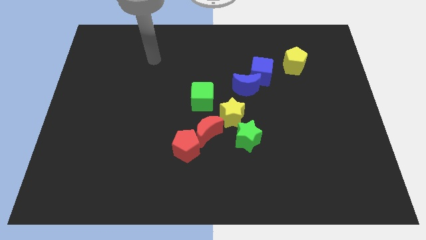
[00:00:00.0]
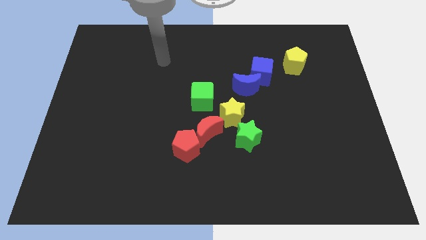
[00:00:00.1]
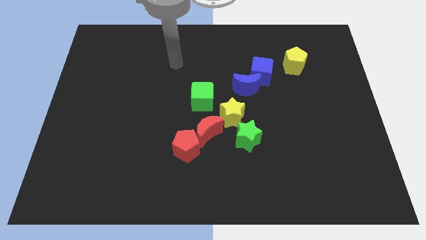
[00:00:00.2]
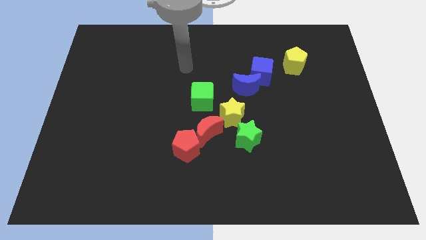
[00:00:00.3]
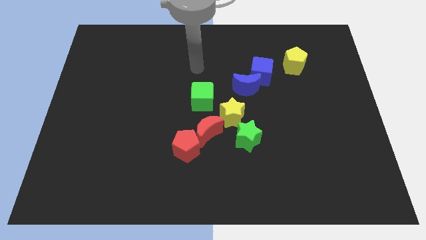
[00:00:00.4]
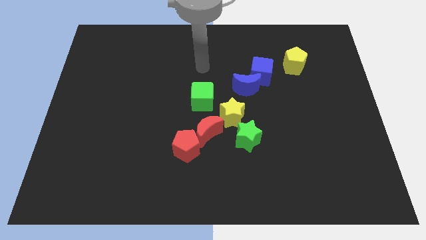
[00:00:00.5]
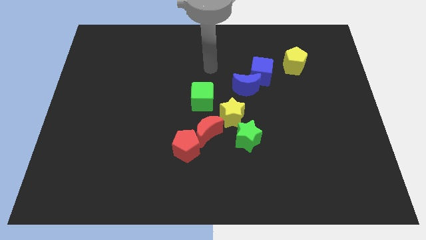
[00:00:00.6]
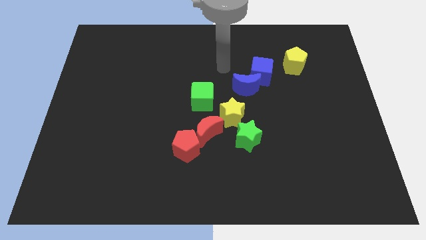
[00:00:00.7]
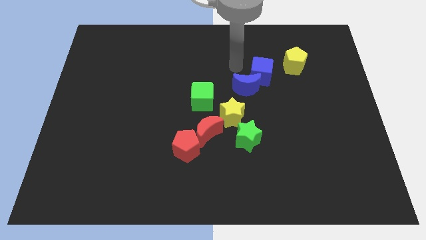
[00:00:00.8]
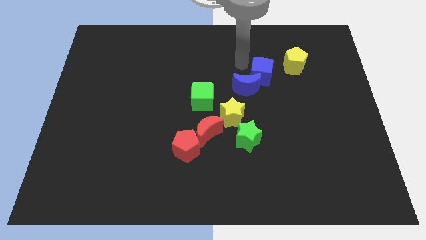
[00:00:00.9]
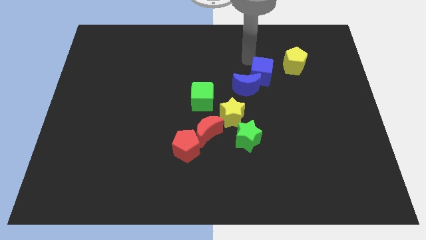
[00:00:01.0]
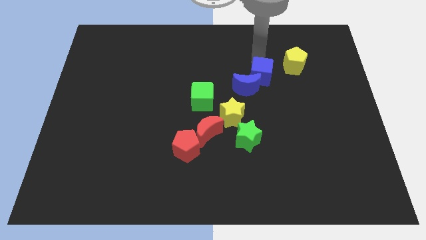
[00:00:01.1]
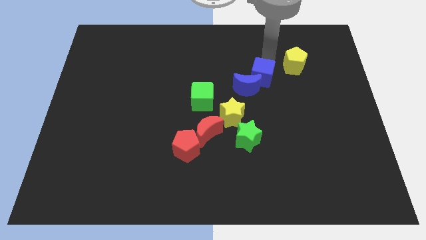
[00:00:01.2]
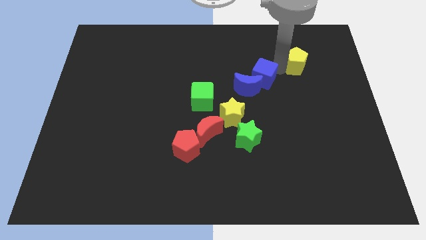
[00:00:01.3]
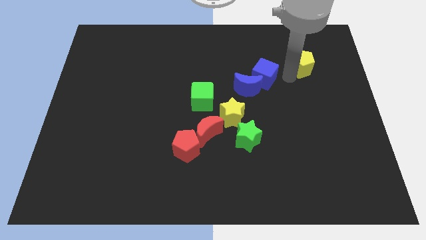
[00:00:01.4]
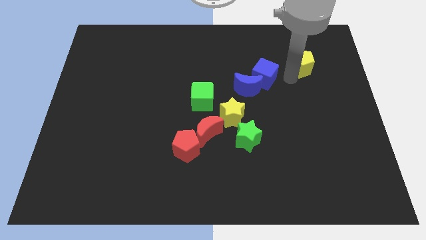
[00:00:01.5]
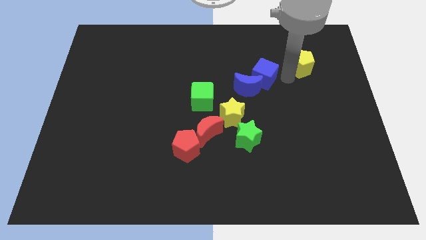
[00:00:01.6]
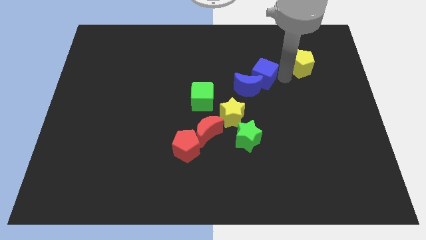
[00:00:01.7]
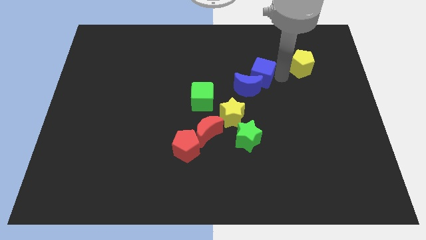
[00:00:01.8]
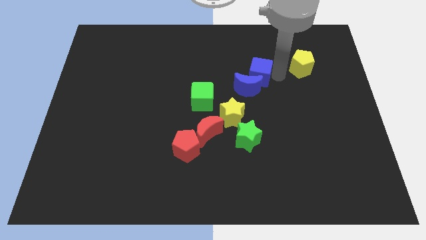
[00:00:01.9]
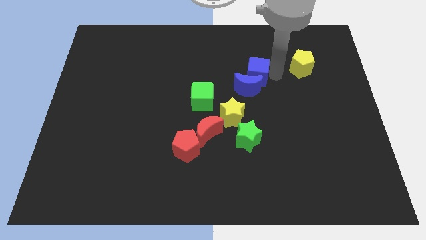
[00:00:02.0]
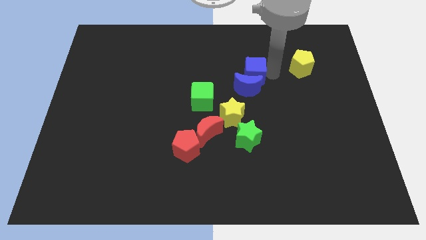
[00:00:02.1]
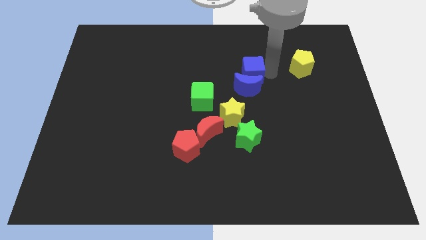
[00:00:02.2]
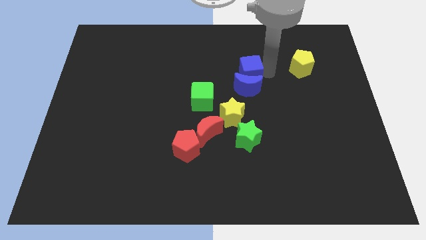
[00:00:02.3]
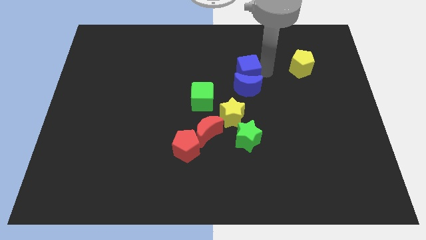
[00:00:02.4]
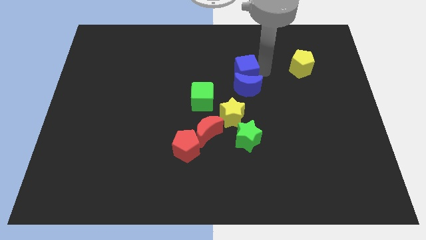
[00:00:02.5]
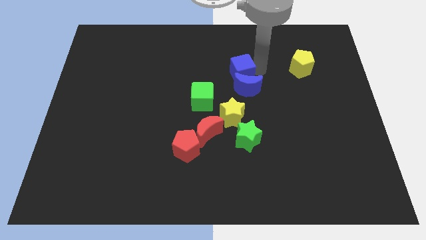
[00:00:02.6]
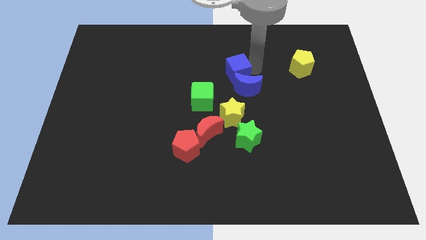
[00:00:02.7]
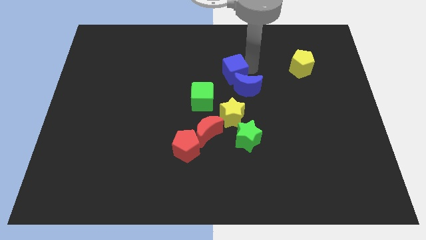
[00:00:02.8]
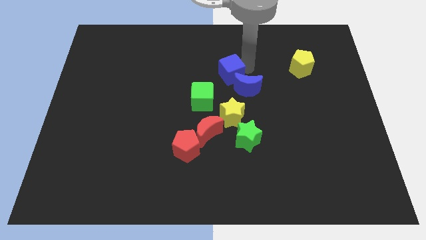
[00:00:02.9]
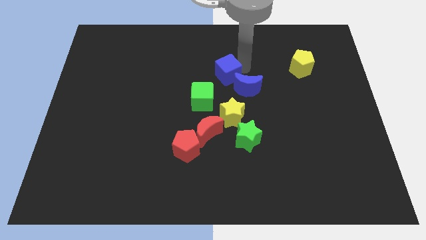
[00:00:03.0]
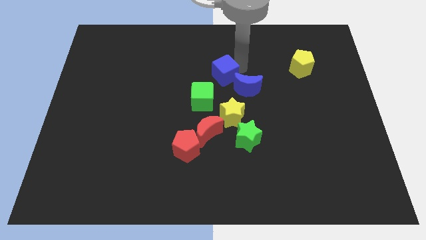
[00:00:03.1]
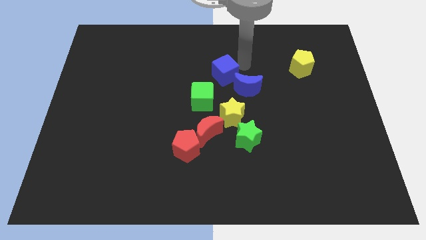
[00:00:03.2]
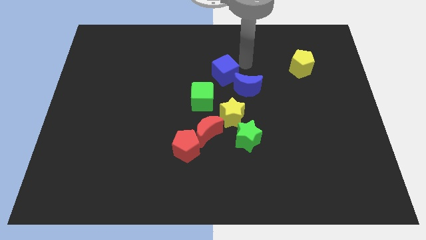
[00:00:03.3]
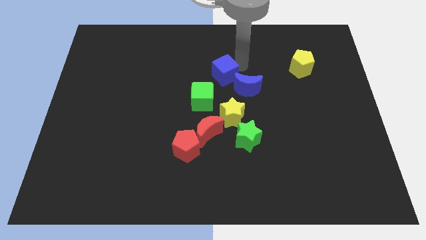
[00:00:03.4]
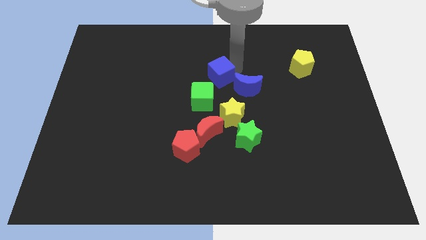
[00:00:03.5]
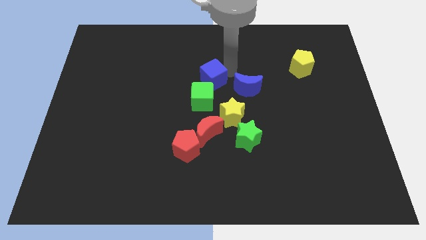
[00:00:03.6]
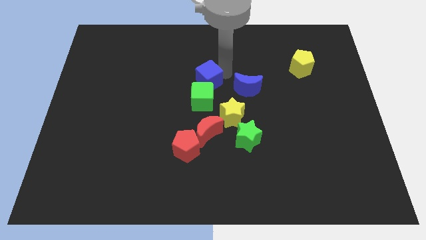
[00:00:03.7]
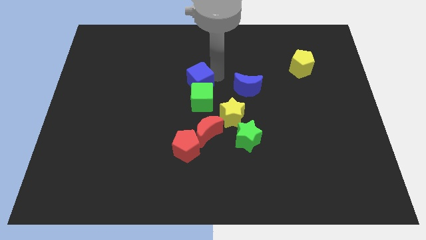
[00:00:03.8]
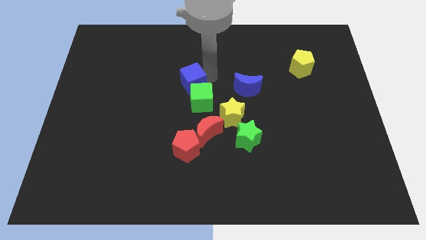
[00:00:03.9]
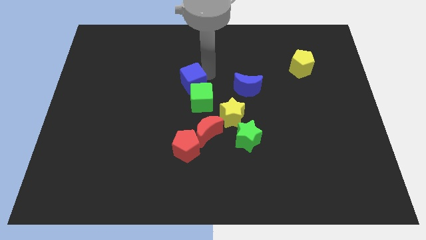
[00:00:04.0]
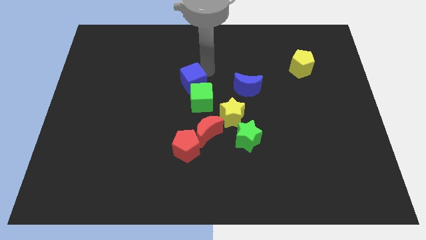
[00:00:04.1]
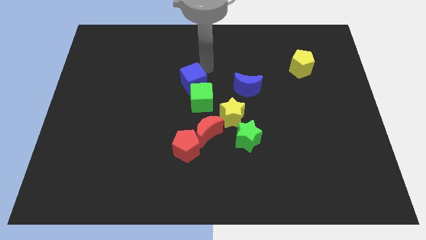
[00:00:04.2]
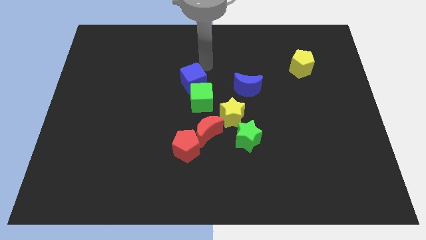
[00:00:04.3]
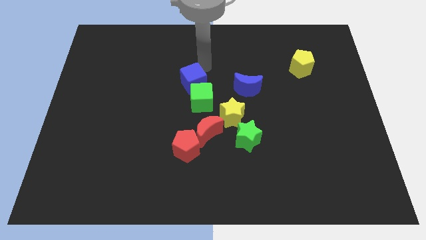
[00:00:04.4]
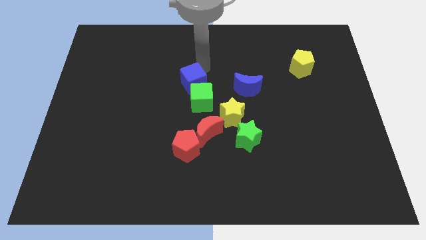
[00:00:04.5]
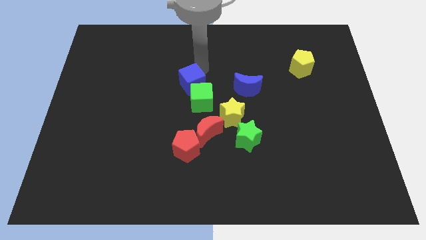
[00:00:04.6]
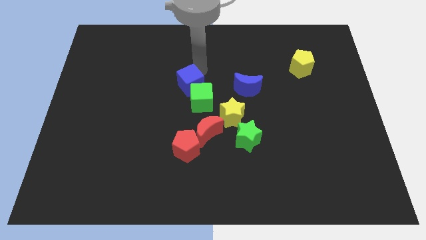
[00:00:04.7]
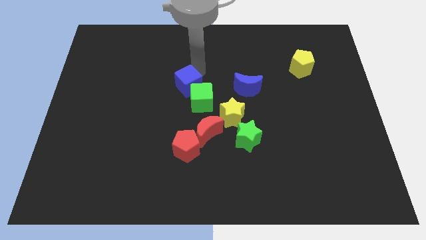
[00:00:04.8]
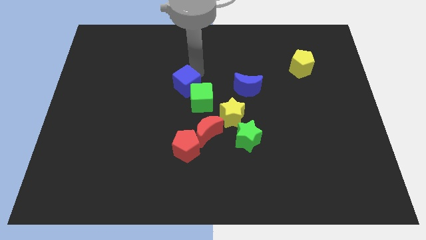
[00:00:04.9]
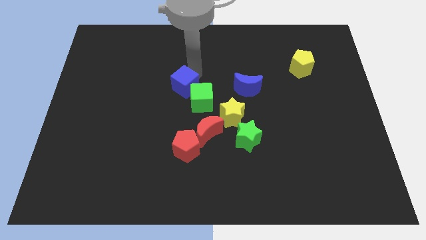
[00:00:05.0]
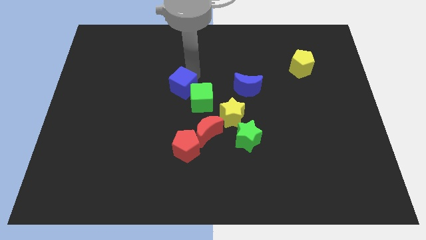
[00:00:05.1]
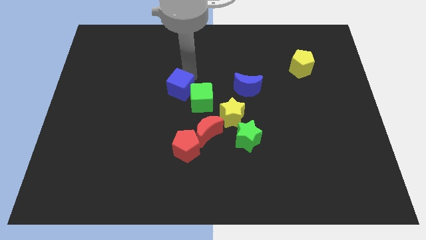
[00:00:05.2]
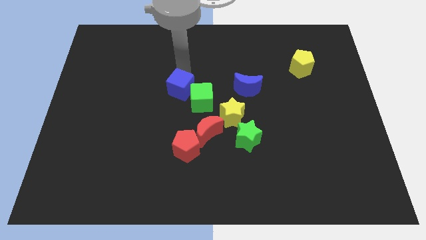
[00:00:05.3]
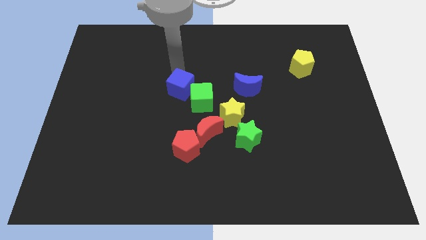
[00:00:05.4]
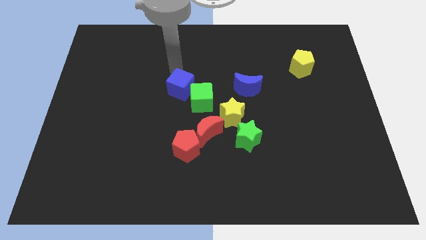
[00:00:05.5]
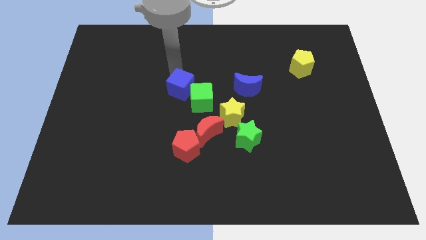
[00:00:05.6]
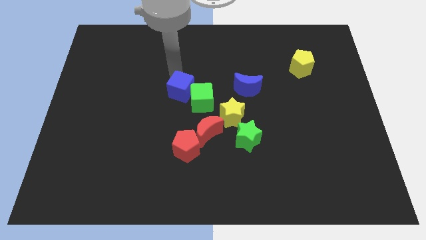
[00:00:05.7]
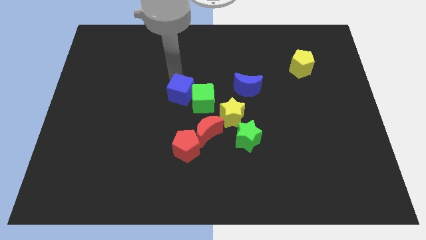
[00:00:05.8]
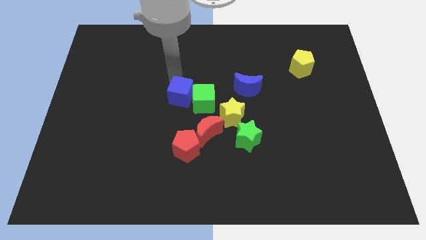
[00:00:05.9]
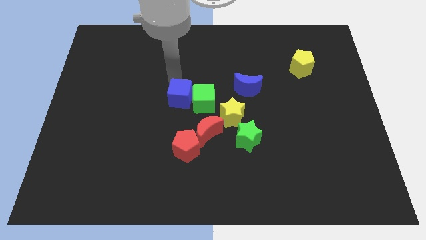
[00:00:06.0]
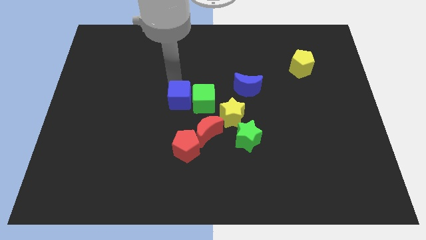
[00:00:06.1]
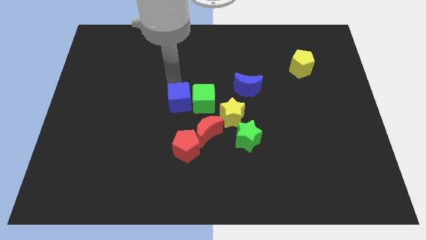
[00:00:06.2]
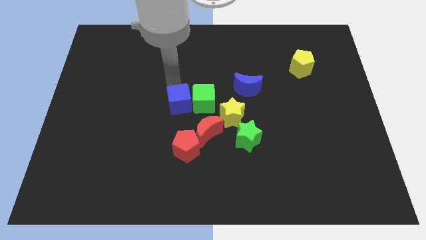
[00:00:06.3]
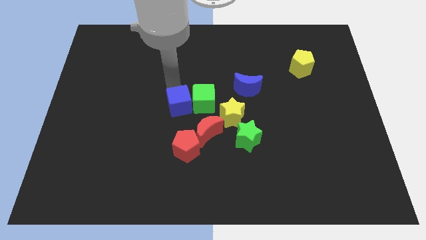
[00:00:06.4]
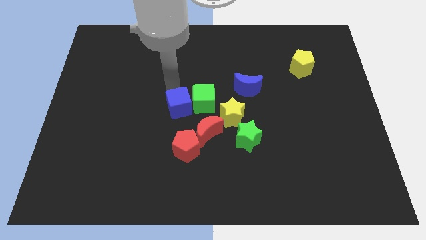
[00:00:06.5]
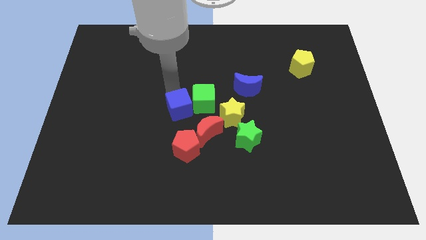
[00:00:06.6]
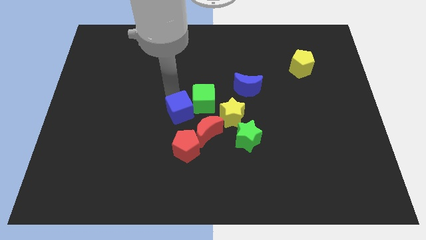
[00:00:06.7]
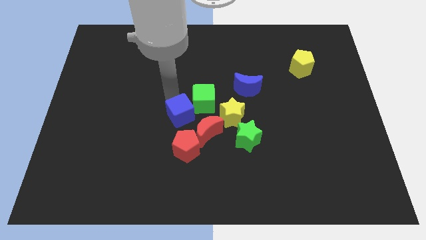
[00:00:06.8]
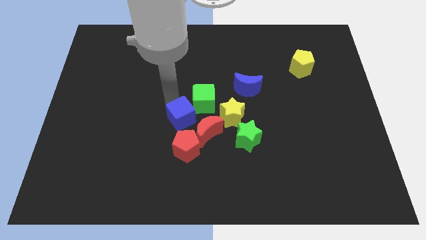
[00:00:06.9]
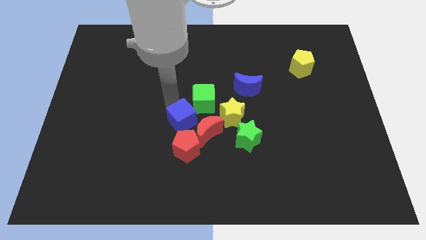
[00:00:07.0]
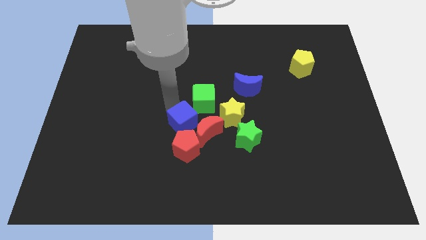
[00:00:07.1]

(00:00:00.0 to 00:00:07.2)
push the blue cube towards the red moon
